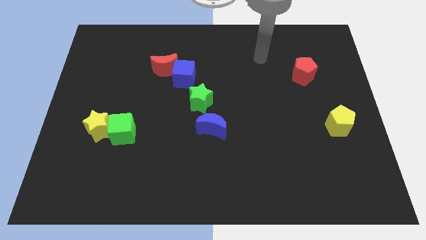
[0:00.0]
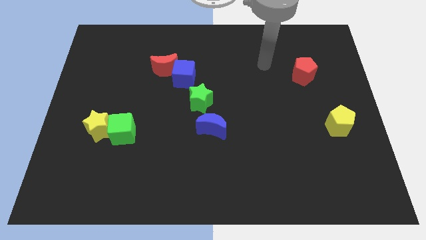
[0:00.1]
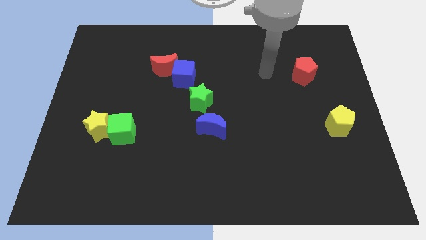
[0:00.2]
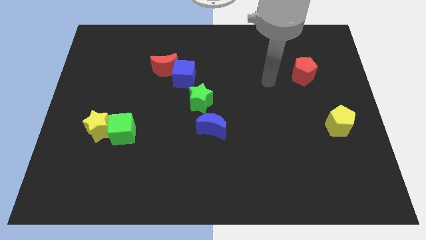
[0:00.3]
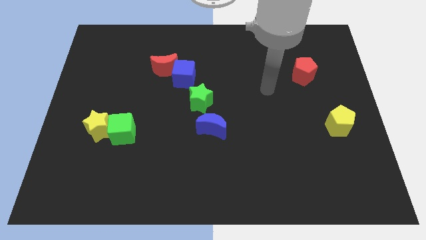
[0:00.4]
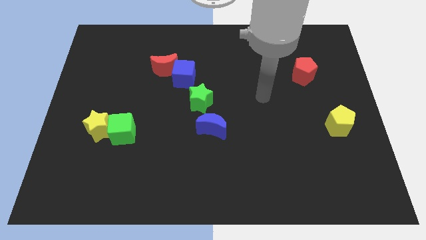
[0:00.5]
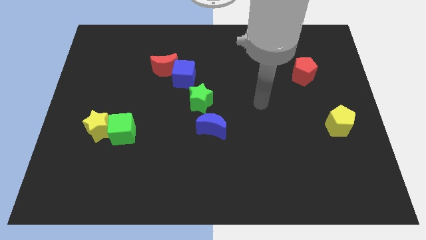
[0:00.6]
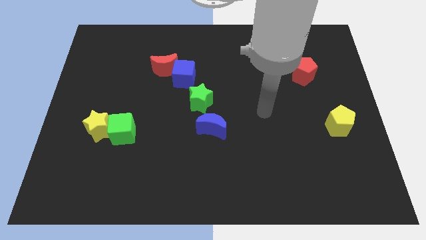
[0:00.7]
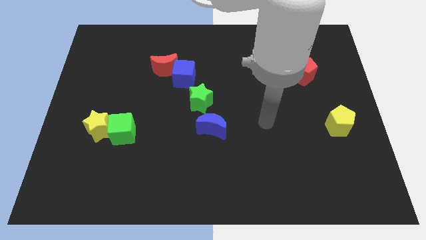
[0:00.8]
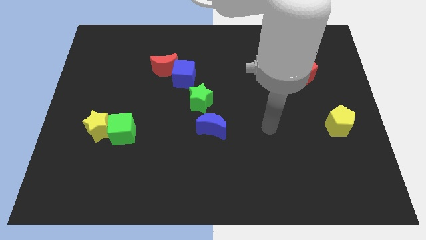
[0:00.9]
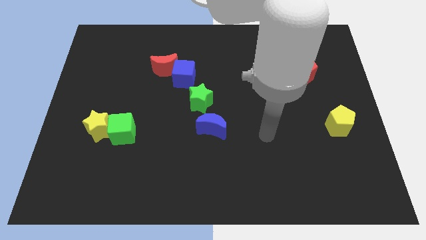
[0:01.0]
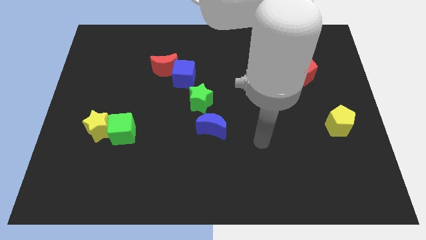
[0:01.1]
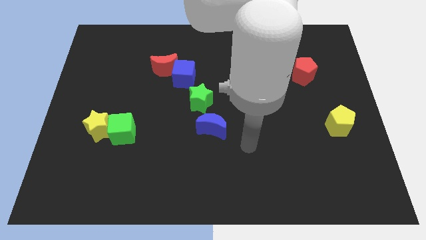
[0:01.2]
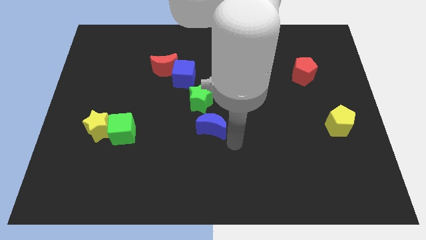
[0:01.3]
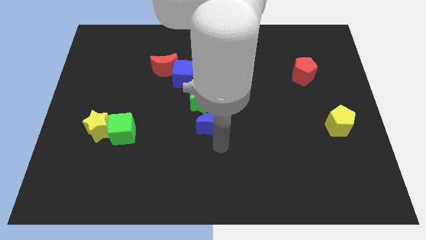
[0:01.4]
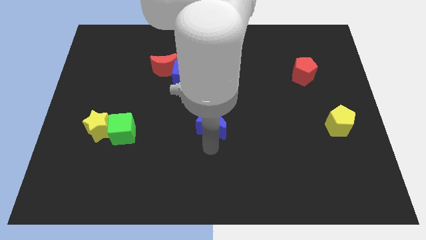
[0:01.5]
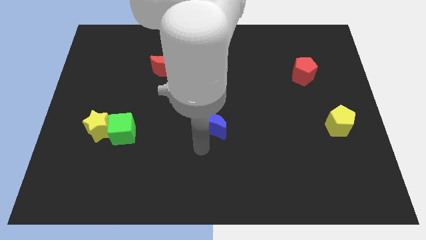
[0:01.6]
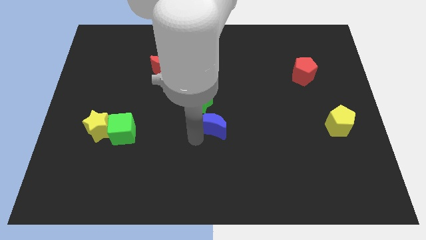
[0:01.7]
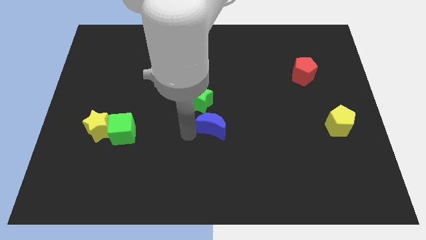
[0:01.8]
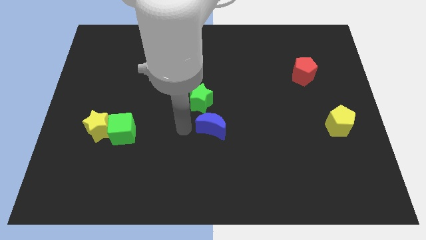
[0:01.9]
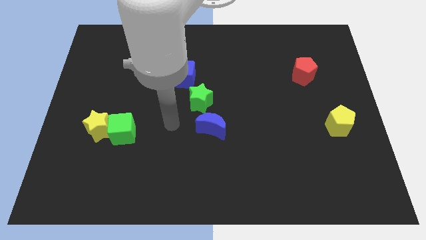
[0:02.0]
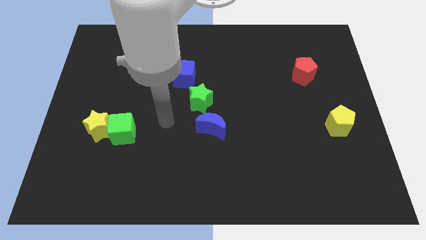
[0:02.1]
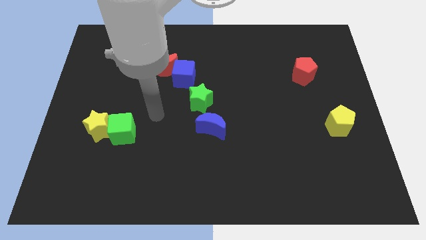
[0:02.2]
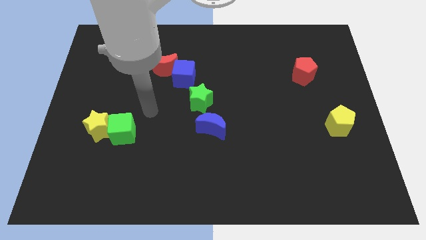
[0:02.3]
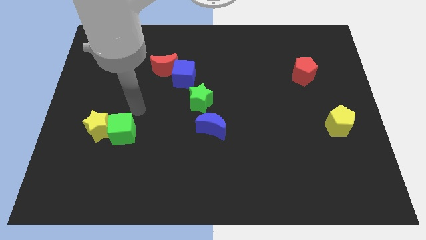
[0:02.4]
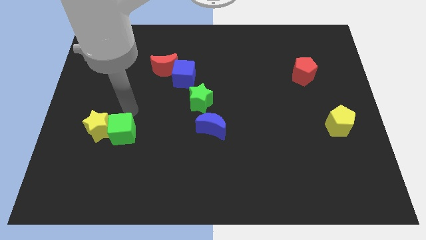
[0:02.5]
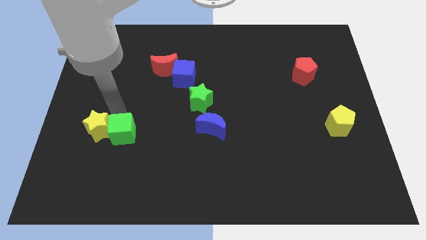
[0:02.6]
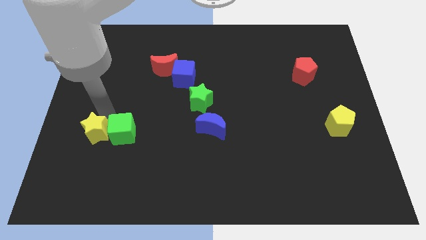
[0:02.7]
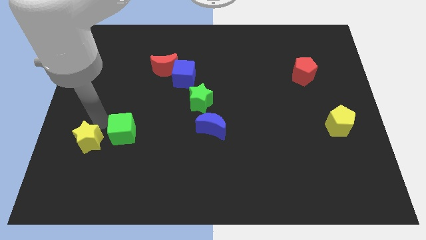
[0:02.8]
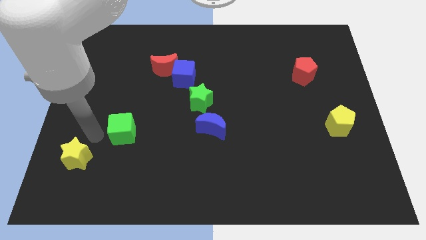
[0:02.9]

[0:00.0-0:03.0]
pull the green cube apart from the yellow star

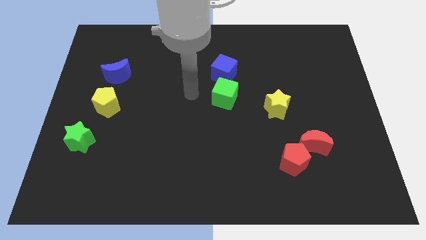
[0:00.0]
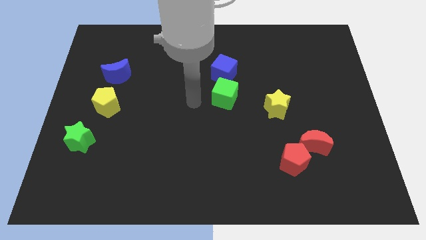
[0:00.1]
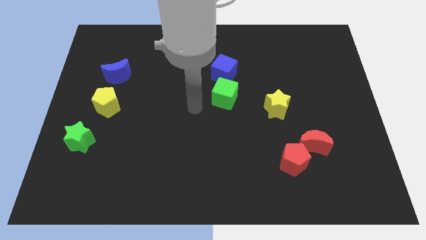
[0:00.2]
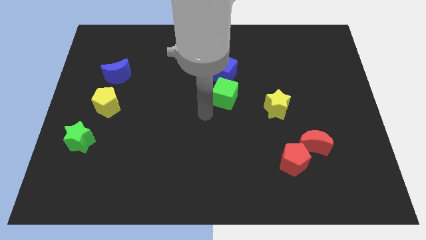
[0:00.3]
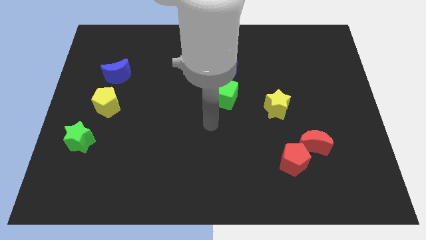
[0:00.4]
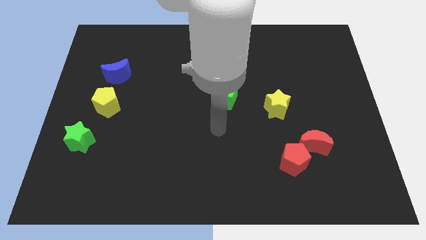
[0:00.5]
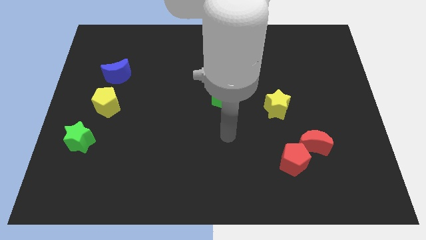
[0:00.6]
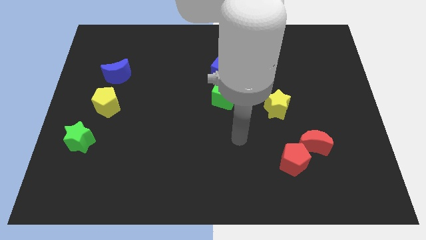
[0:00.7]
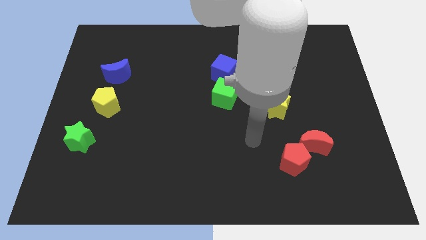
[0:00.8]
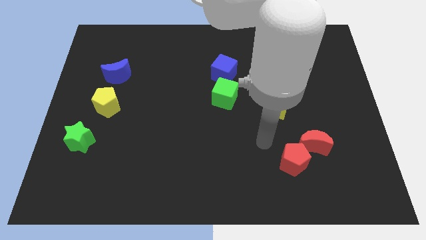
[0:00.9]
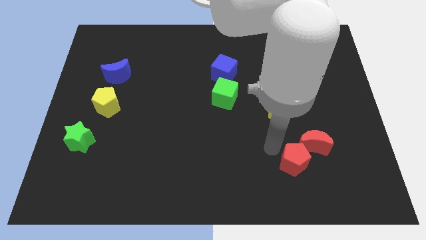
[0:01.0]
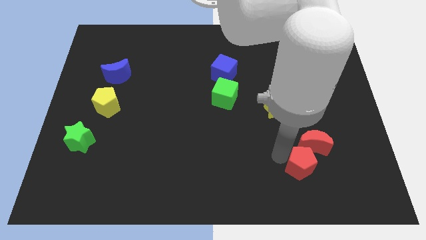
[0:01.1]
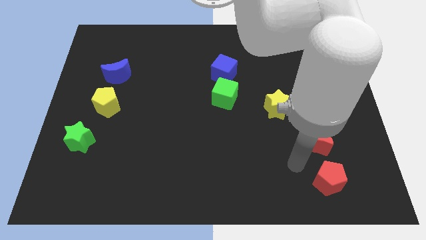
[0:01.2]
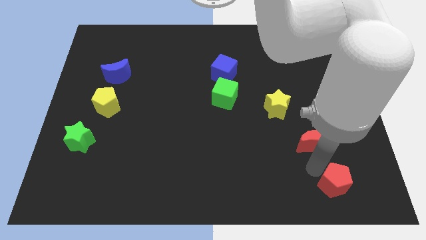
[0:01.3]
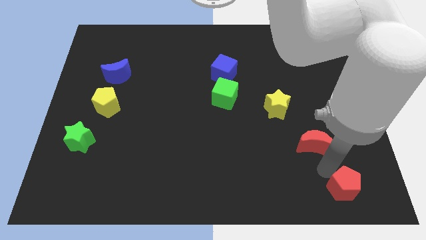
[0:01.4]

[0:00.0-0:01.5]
separate the red moon from the red pentagon

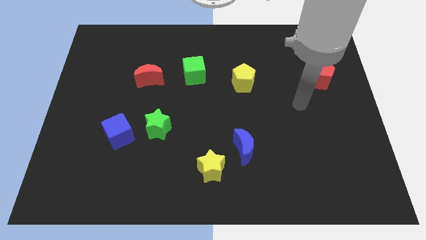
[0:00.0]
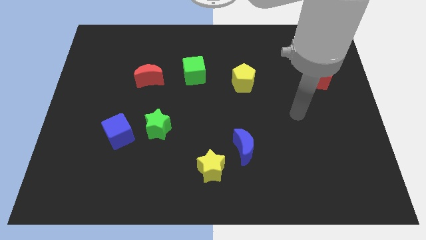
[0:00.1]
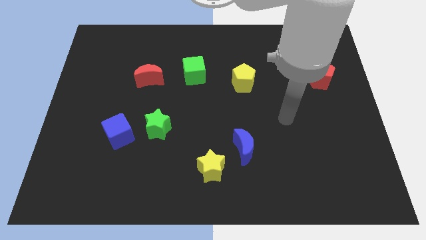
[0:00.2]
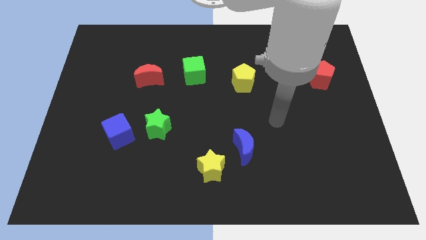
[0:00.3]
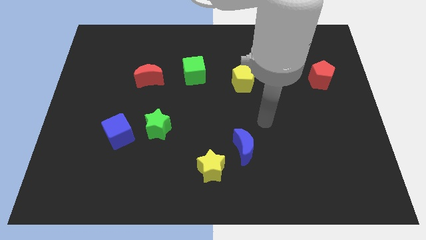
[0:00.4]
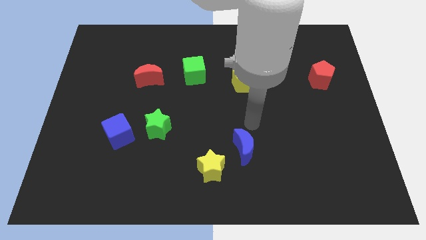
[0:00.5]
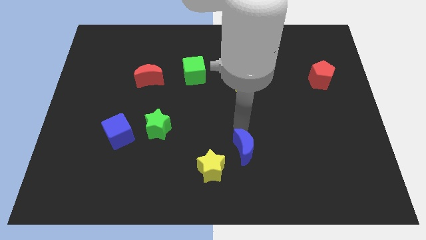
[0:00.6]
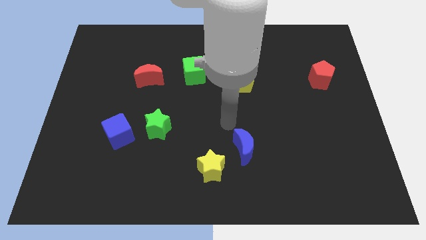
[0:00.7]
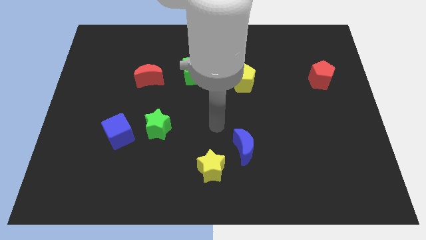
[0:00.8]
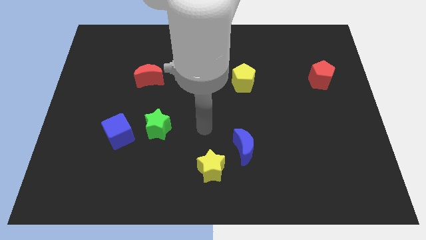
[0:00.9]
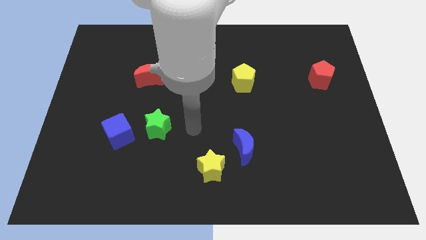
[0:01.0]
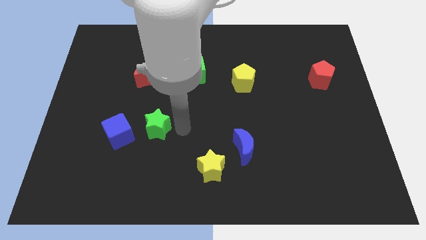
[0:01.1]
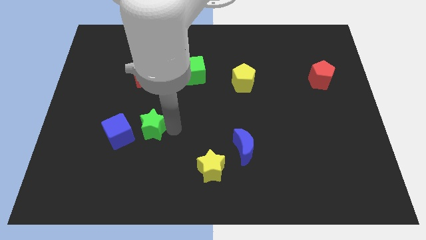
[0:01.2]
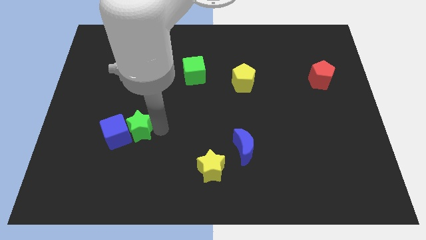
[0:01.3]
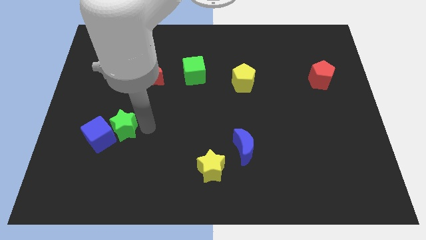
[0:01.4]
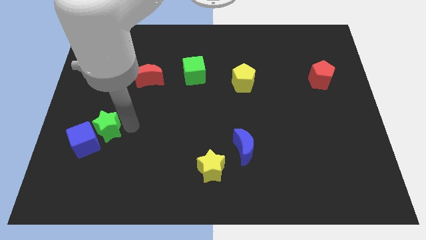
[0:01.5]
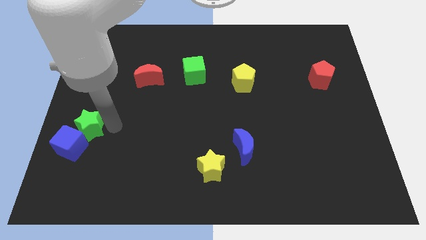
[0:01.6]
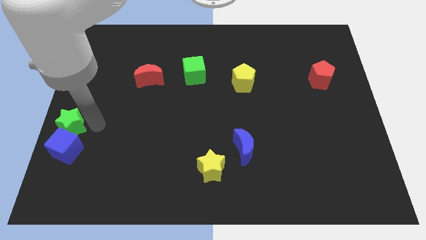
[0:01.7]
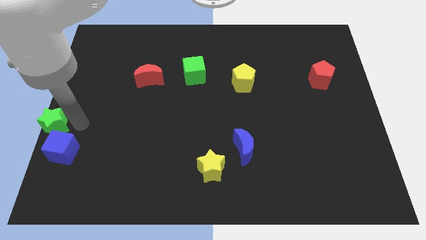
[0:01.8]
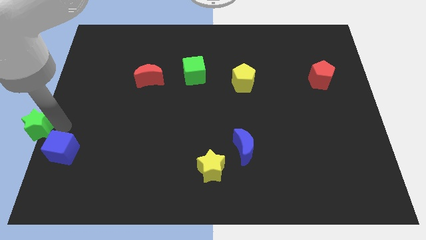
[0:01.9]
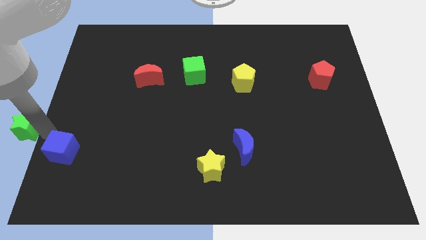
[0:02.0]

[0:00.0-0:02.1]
separate the blue cube from the green star

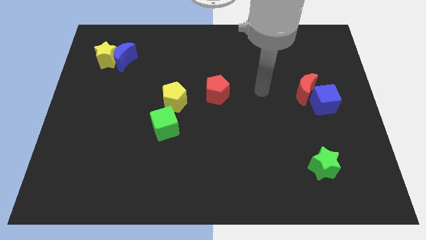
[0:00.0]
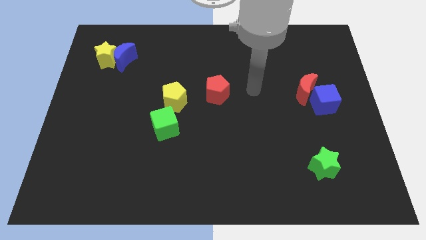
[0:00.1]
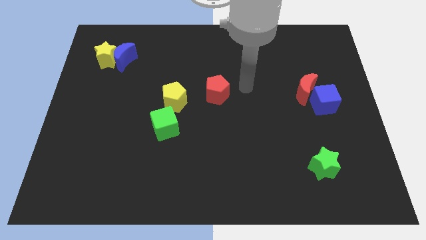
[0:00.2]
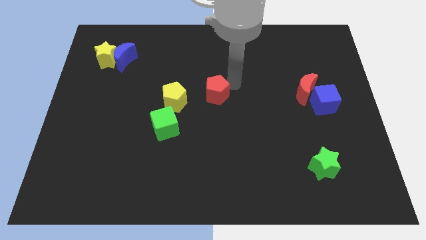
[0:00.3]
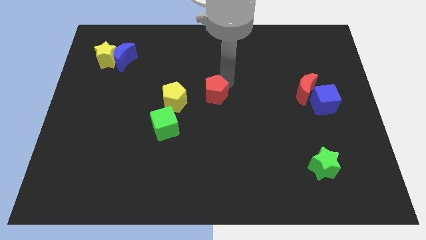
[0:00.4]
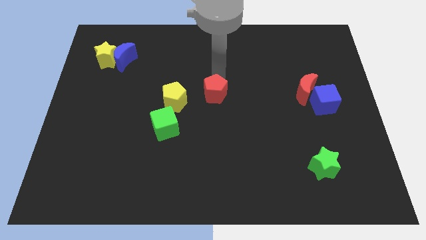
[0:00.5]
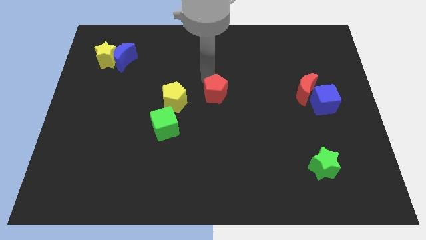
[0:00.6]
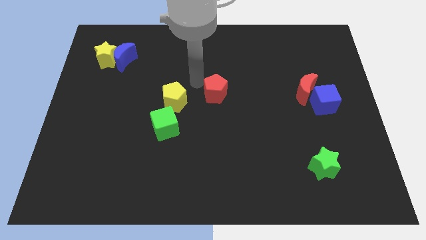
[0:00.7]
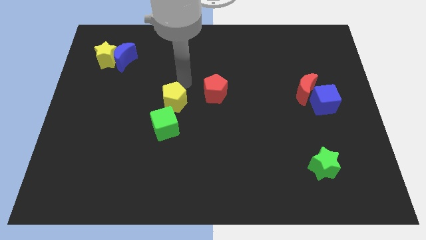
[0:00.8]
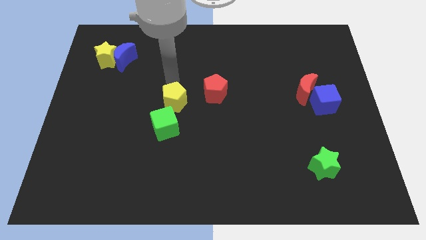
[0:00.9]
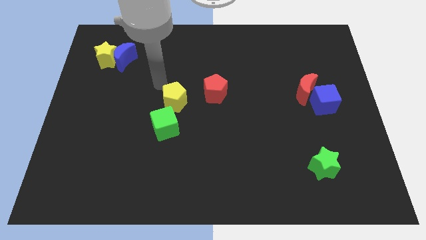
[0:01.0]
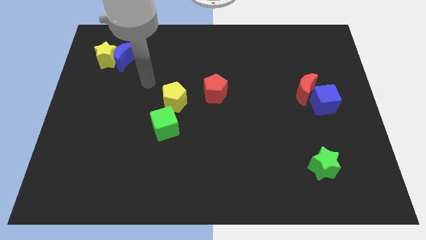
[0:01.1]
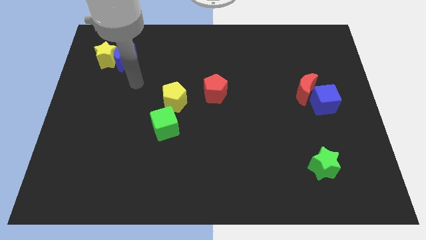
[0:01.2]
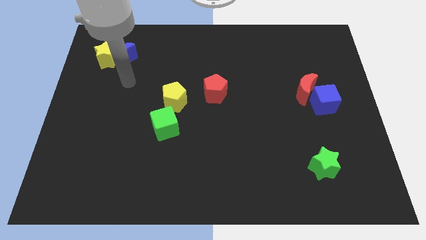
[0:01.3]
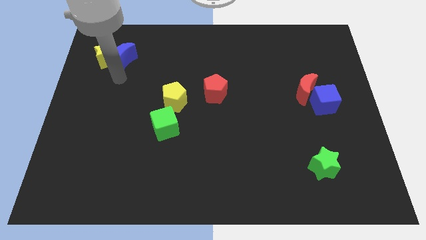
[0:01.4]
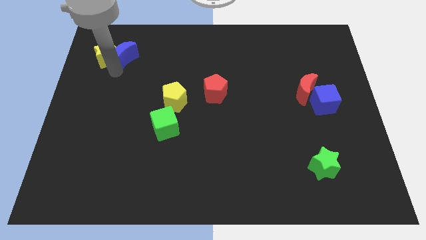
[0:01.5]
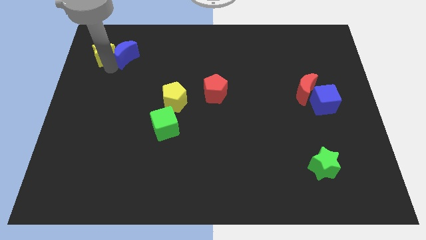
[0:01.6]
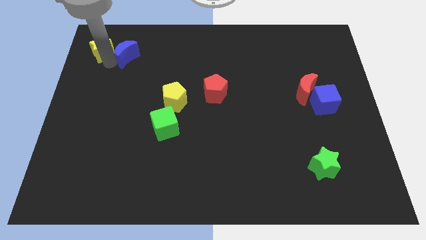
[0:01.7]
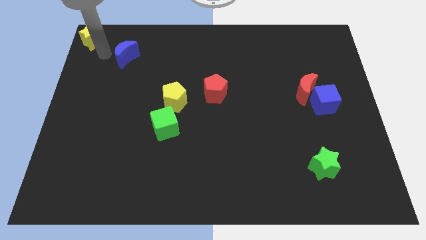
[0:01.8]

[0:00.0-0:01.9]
move the blue moon away from the yellow star

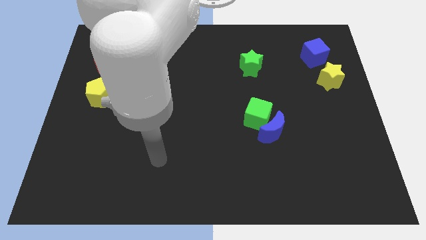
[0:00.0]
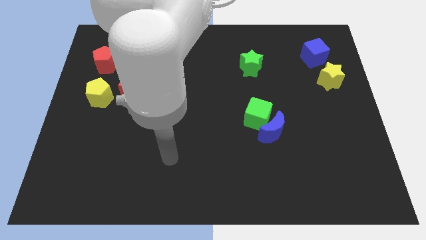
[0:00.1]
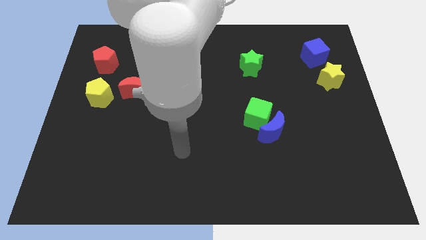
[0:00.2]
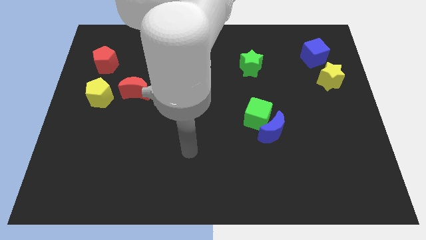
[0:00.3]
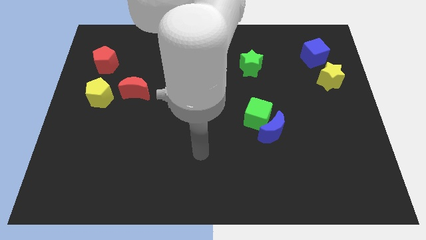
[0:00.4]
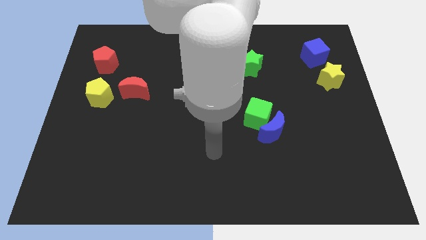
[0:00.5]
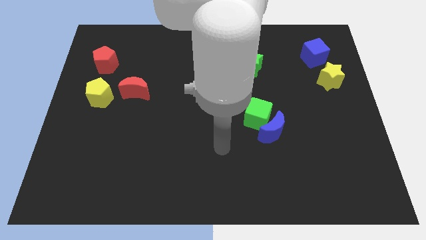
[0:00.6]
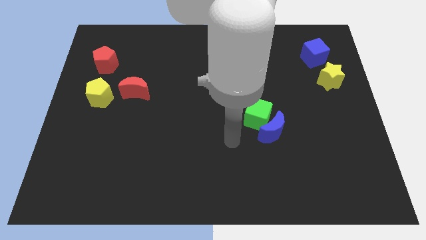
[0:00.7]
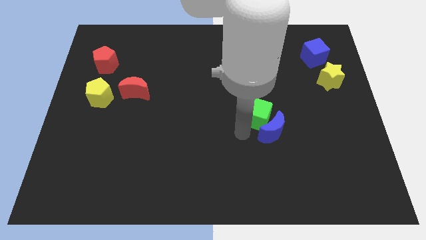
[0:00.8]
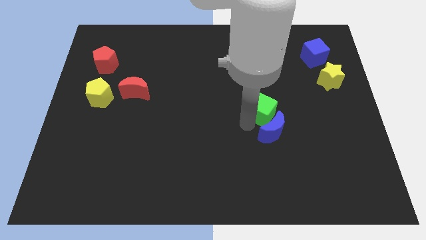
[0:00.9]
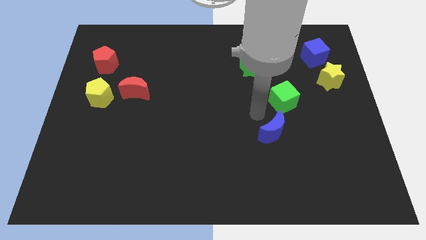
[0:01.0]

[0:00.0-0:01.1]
move the blue moon away from the green cube
